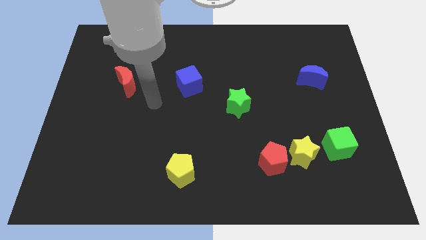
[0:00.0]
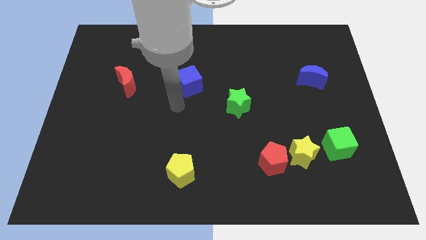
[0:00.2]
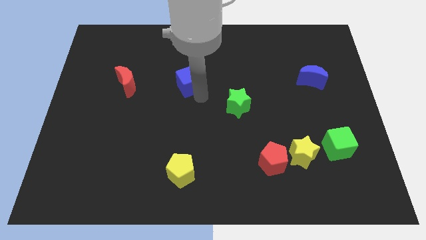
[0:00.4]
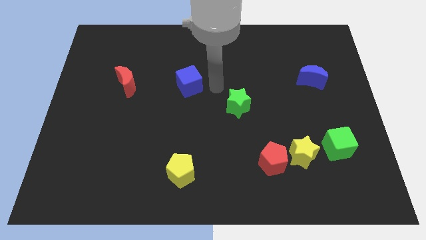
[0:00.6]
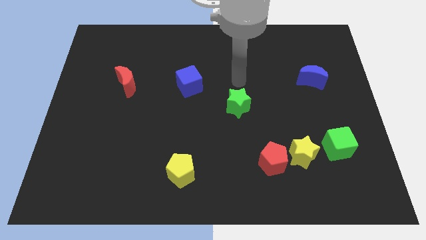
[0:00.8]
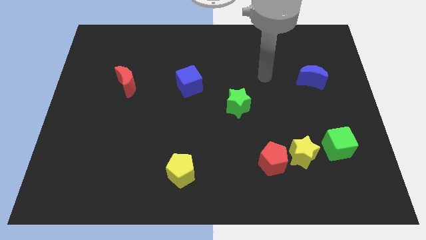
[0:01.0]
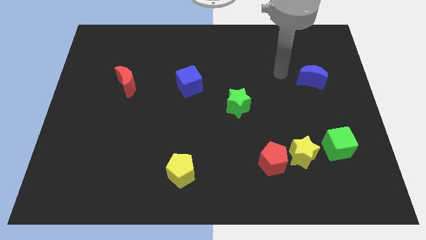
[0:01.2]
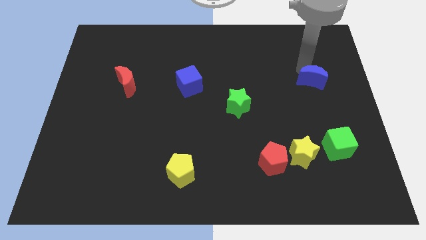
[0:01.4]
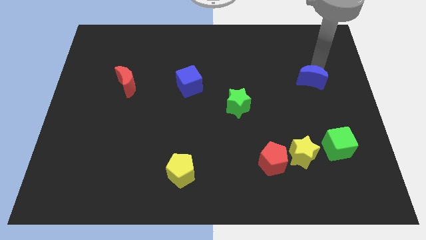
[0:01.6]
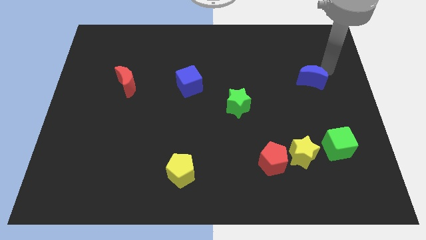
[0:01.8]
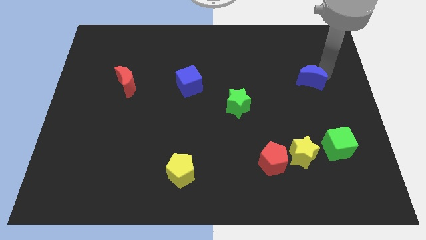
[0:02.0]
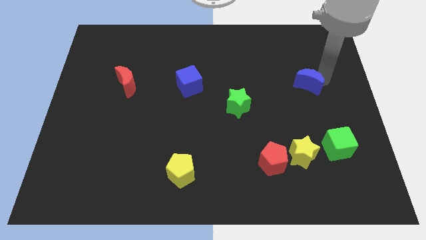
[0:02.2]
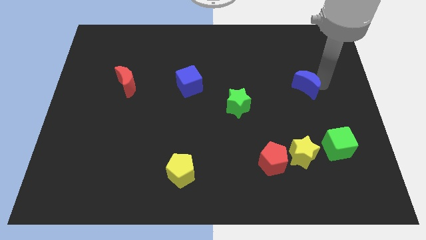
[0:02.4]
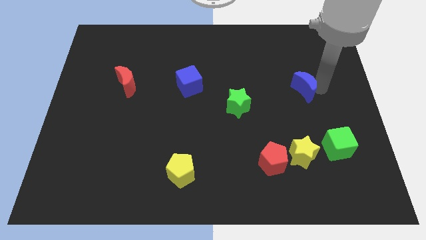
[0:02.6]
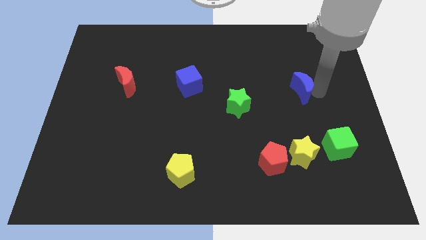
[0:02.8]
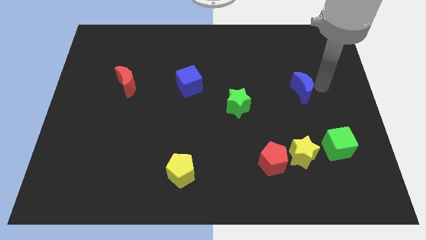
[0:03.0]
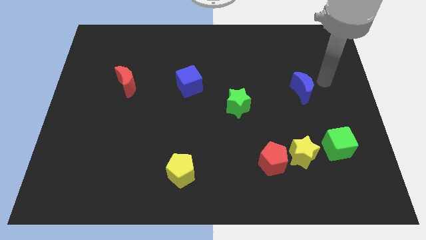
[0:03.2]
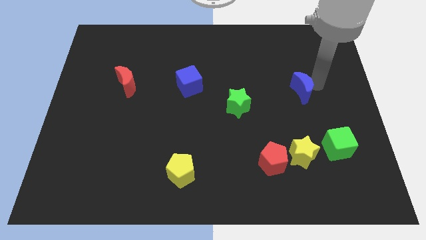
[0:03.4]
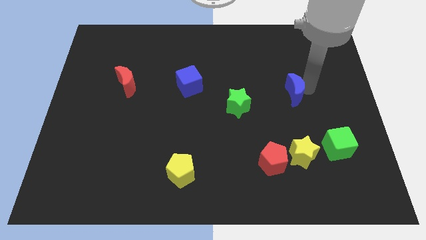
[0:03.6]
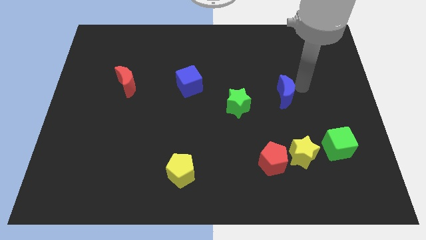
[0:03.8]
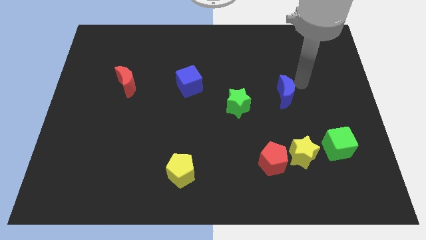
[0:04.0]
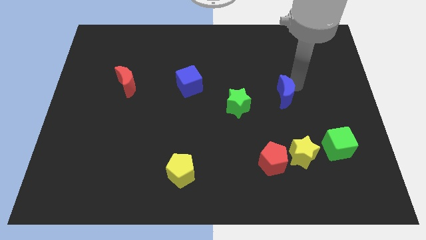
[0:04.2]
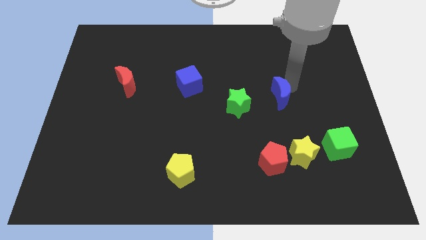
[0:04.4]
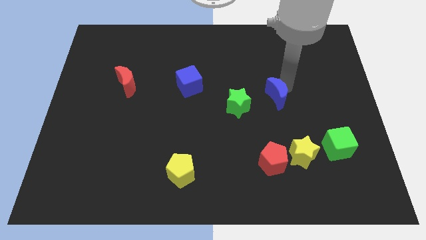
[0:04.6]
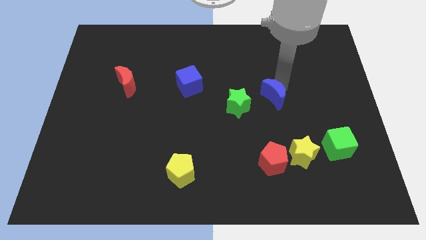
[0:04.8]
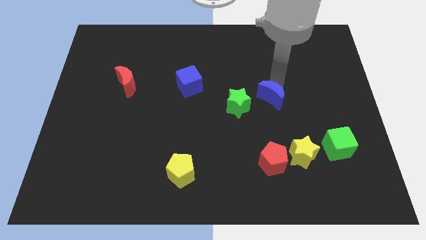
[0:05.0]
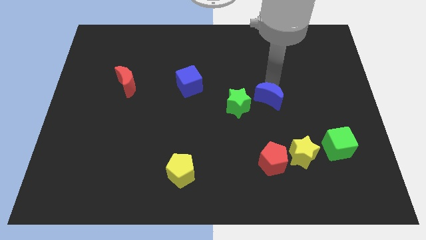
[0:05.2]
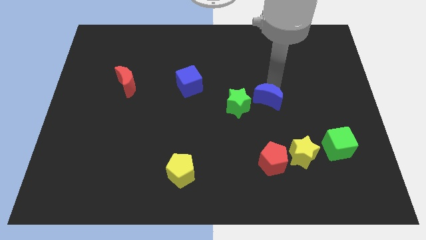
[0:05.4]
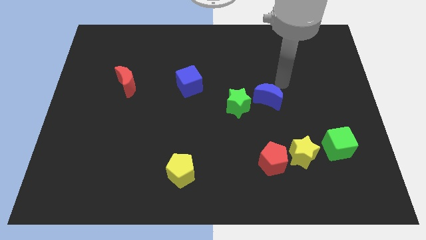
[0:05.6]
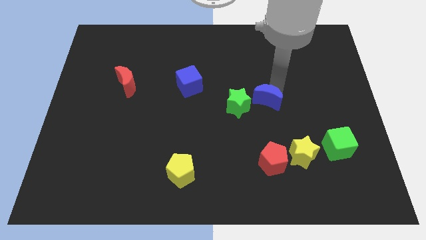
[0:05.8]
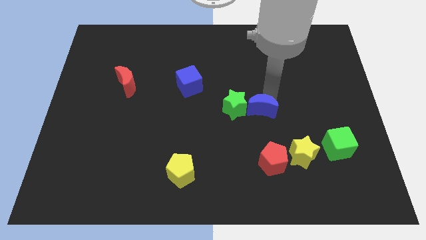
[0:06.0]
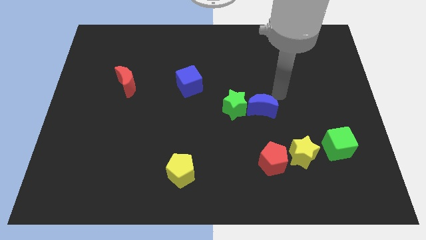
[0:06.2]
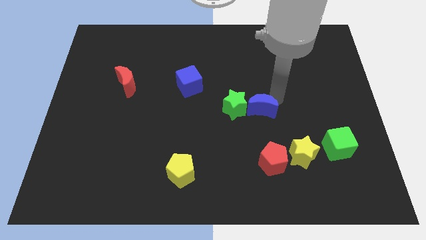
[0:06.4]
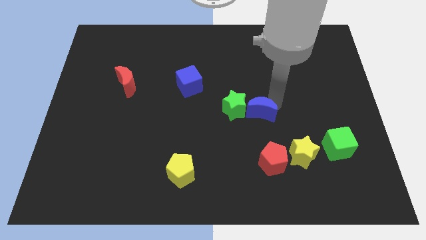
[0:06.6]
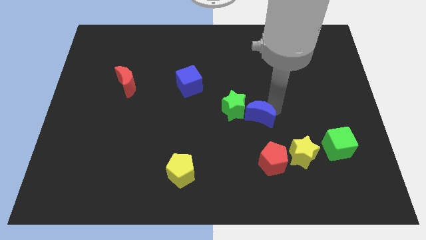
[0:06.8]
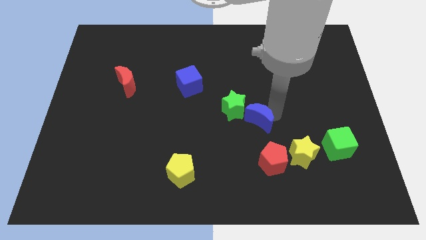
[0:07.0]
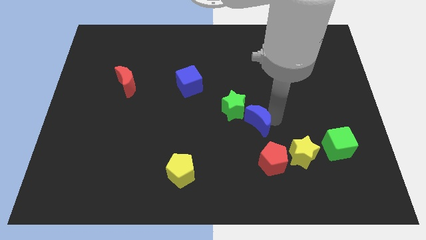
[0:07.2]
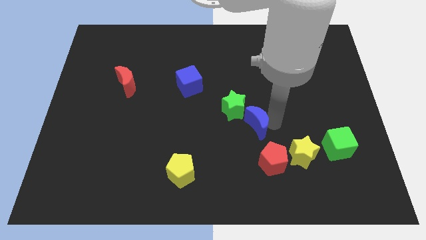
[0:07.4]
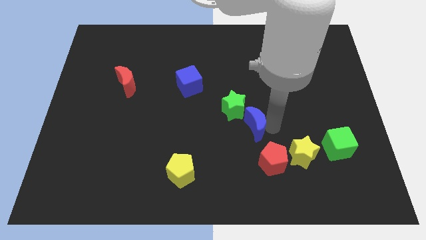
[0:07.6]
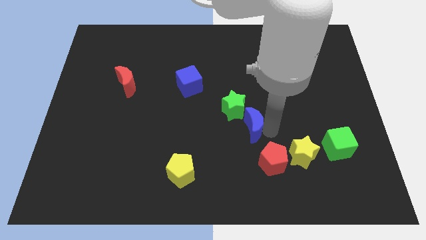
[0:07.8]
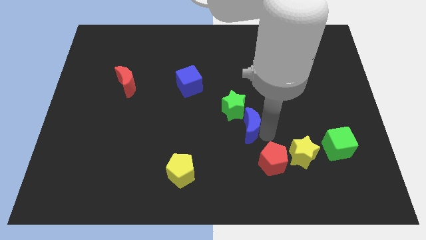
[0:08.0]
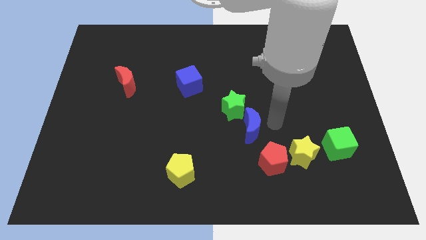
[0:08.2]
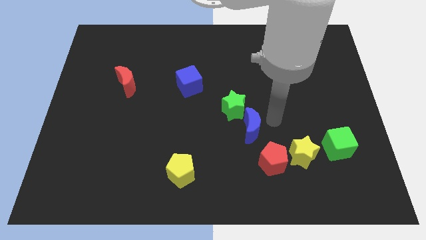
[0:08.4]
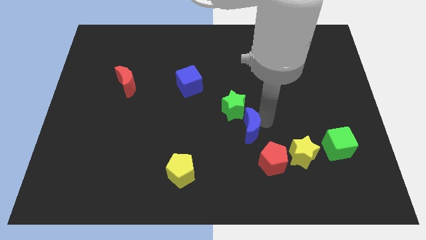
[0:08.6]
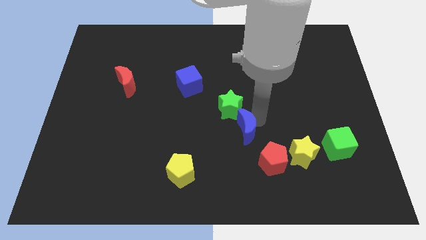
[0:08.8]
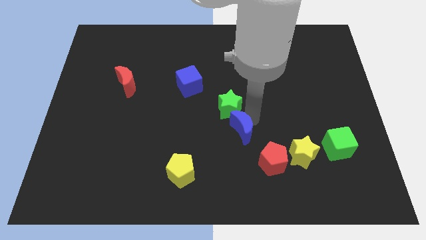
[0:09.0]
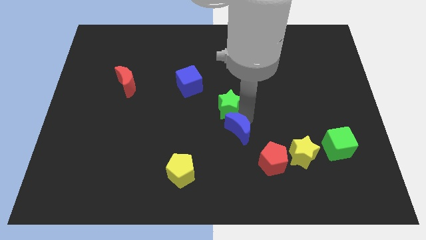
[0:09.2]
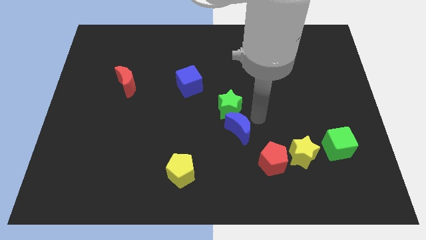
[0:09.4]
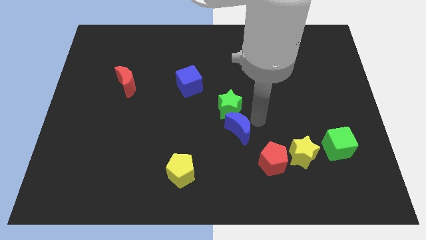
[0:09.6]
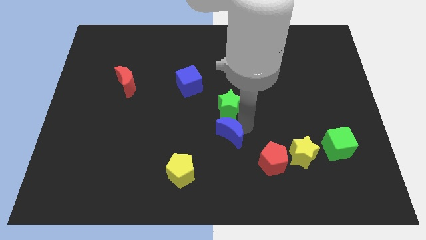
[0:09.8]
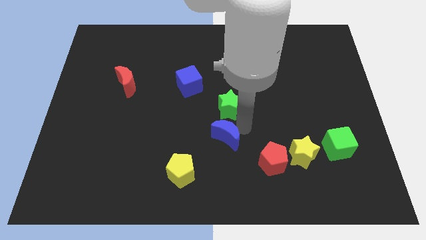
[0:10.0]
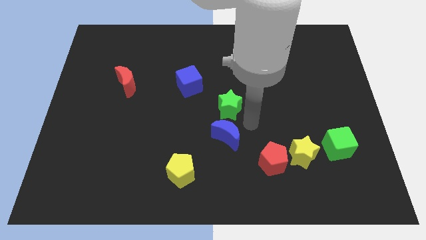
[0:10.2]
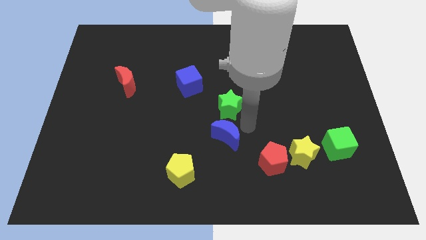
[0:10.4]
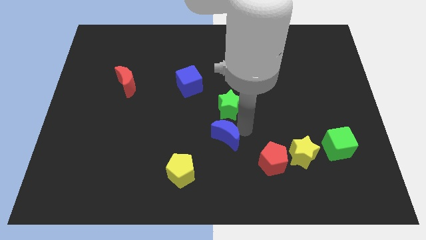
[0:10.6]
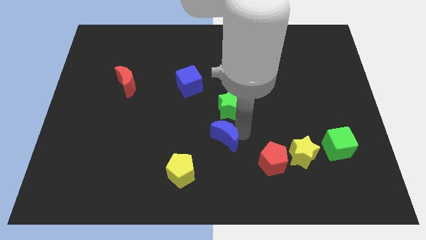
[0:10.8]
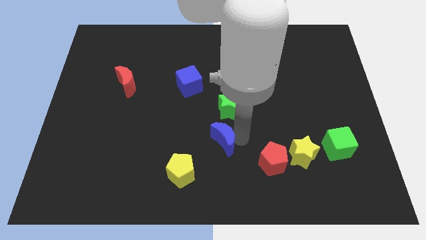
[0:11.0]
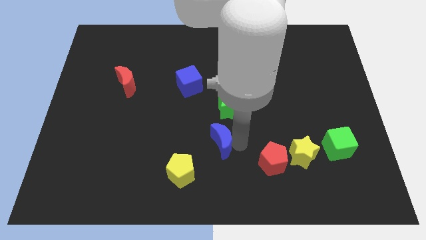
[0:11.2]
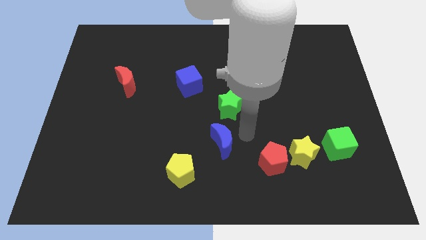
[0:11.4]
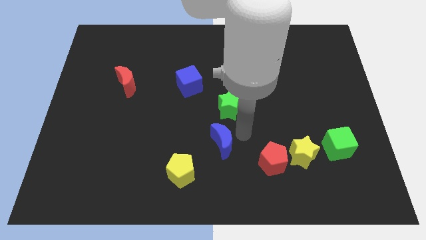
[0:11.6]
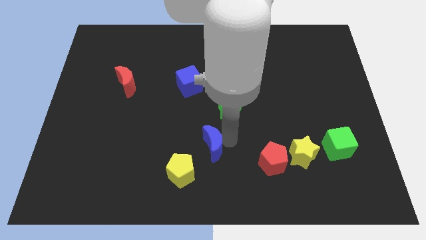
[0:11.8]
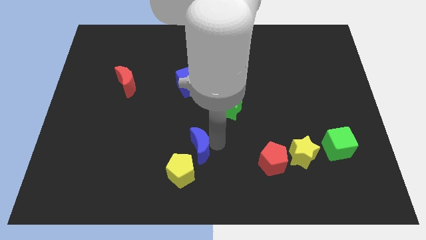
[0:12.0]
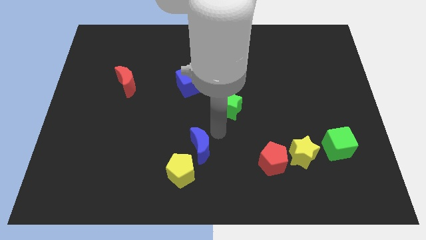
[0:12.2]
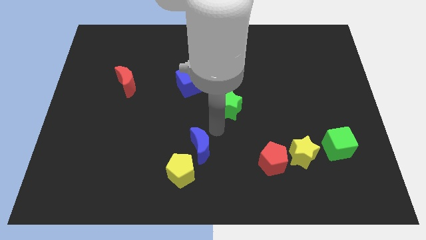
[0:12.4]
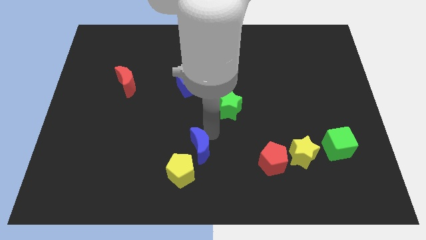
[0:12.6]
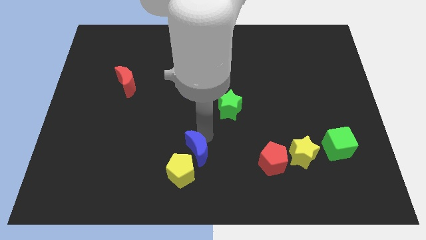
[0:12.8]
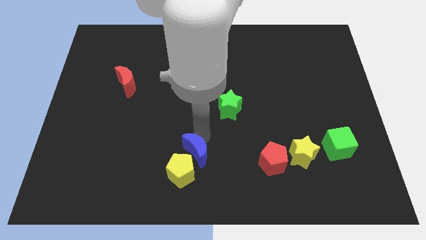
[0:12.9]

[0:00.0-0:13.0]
put the blue moon towards the yellow pentagon

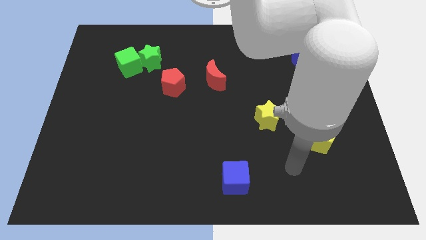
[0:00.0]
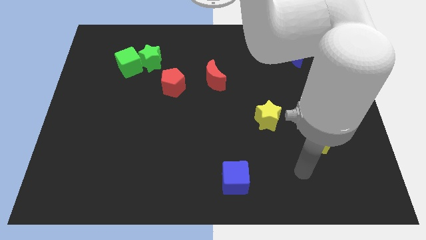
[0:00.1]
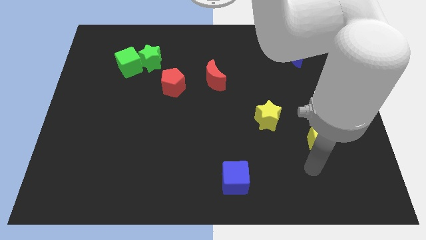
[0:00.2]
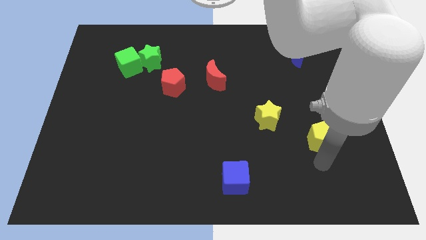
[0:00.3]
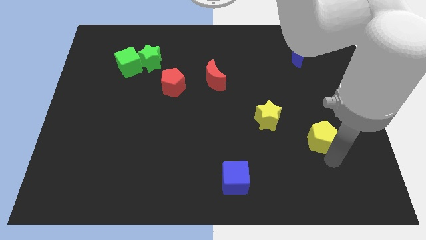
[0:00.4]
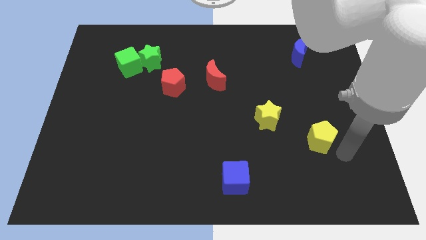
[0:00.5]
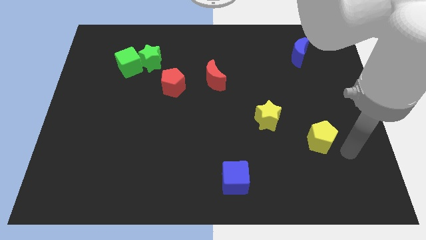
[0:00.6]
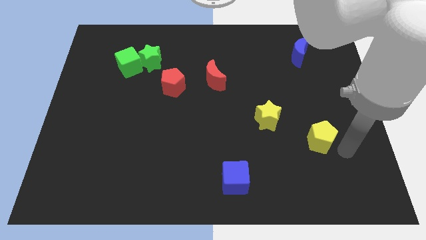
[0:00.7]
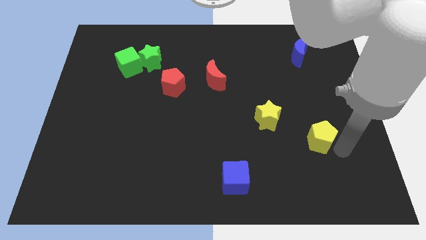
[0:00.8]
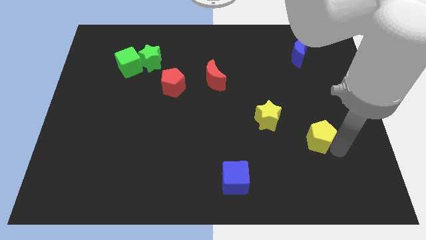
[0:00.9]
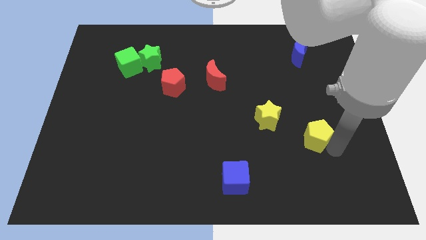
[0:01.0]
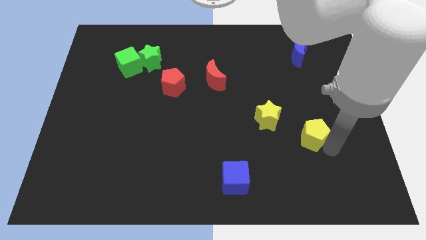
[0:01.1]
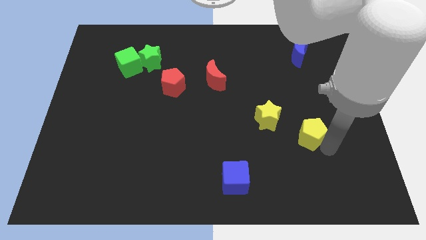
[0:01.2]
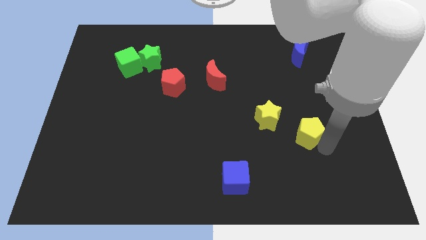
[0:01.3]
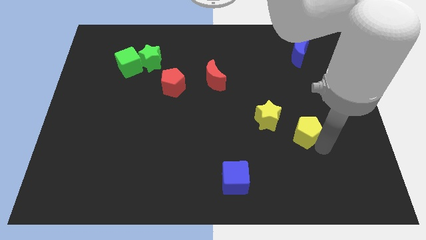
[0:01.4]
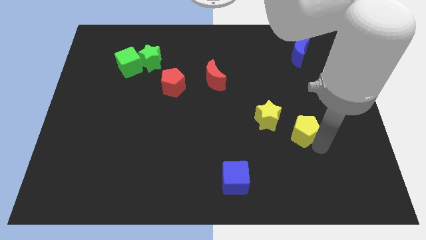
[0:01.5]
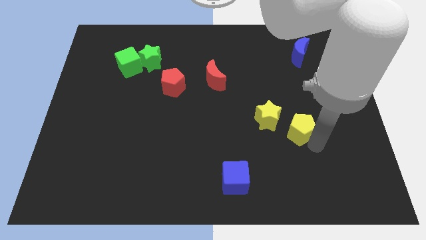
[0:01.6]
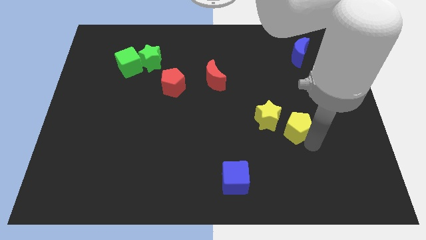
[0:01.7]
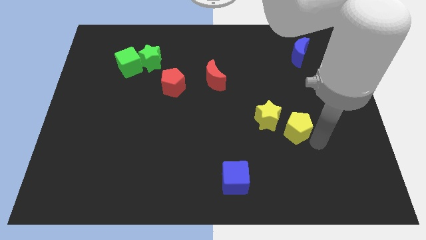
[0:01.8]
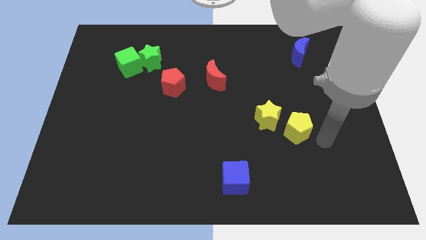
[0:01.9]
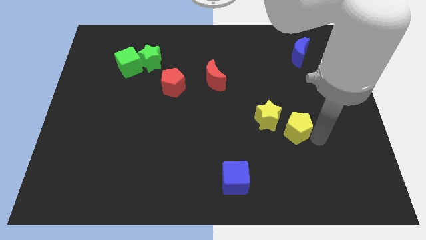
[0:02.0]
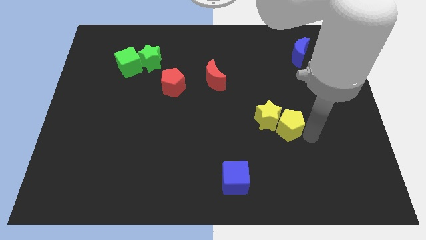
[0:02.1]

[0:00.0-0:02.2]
push the yellow pentagon close to the yellow star
